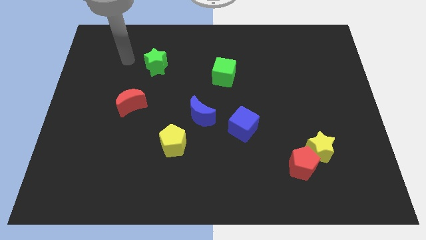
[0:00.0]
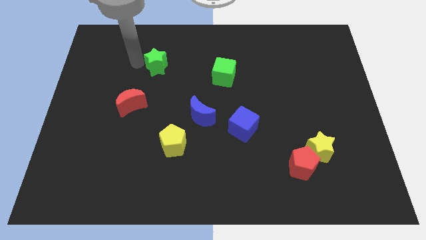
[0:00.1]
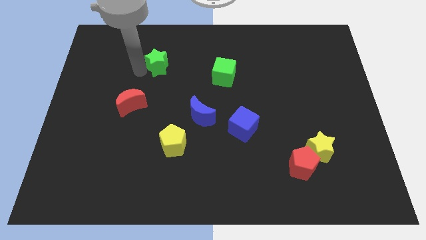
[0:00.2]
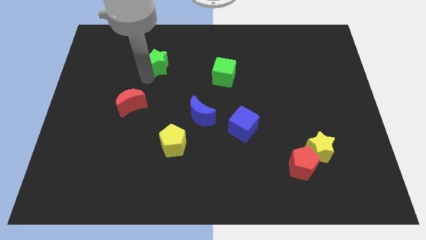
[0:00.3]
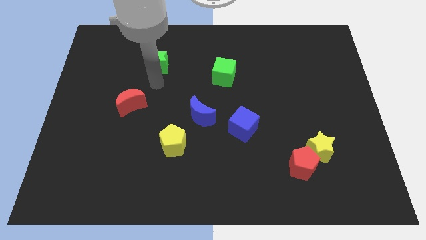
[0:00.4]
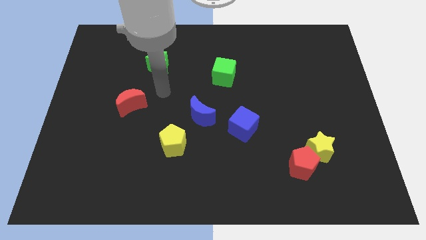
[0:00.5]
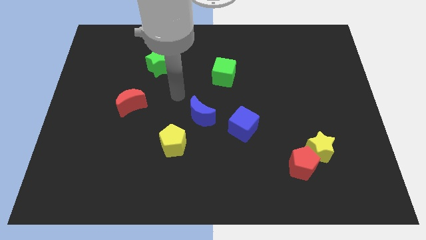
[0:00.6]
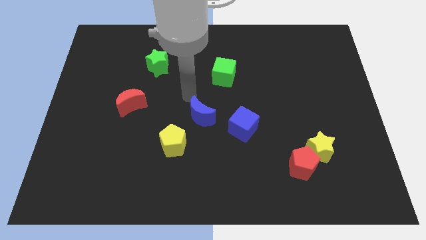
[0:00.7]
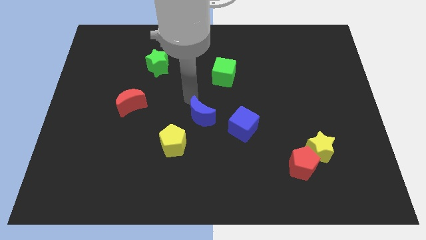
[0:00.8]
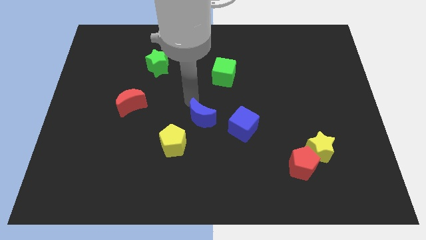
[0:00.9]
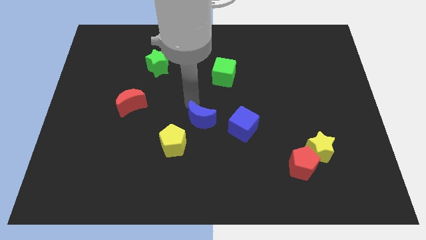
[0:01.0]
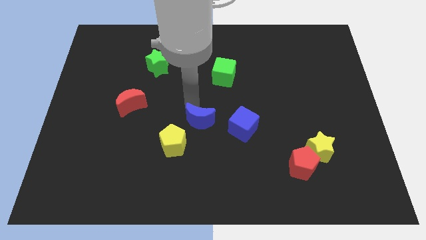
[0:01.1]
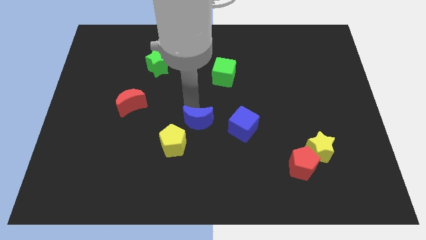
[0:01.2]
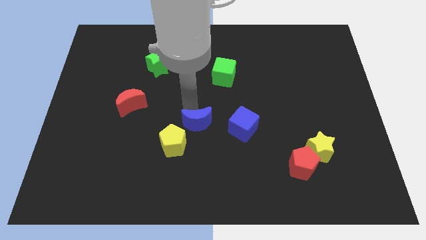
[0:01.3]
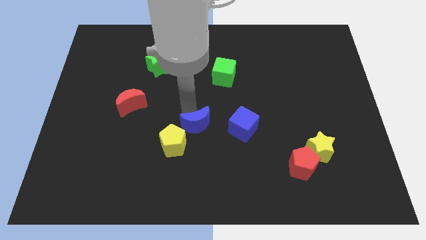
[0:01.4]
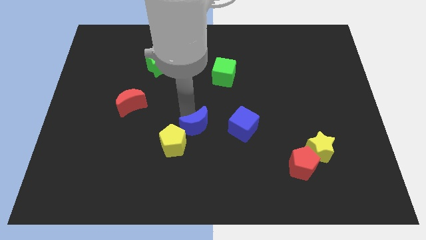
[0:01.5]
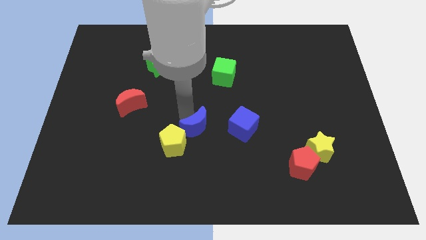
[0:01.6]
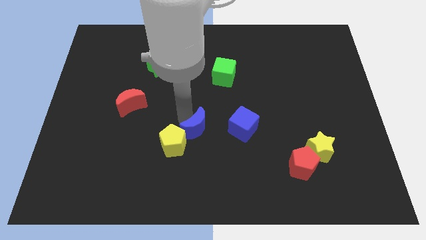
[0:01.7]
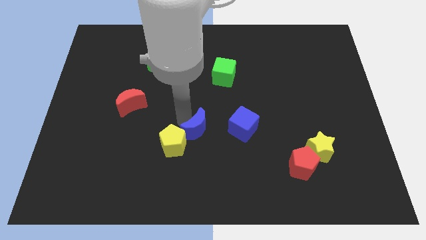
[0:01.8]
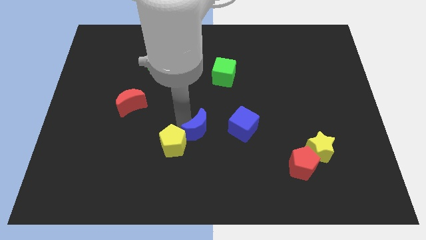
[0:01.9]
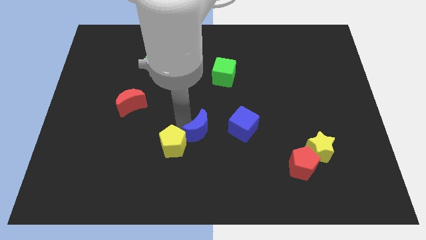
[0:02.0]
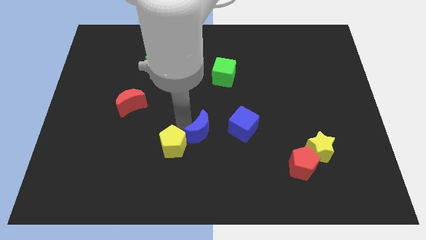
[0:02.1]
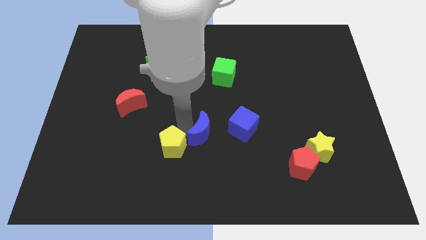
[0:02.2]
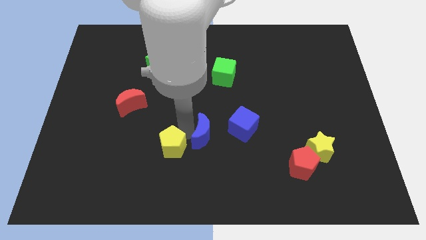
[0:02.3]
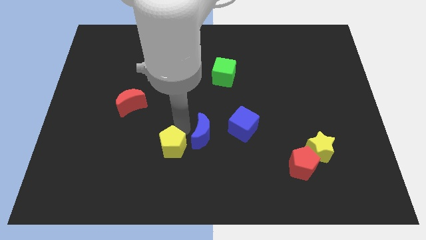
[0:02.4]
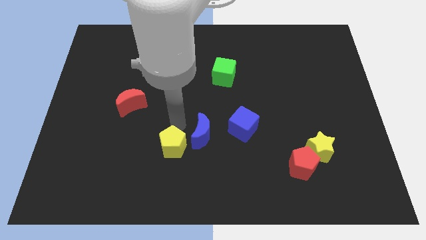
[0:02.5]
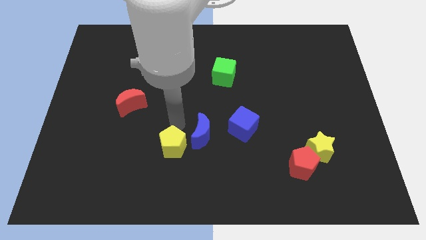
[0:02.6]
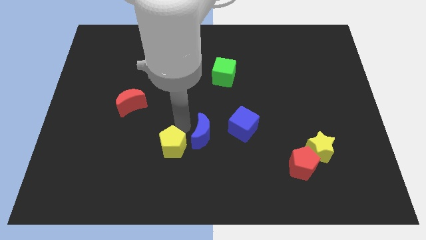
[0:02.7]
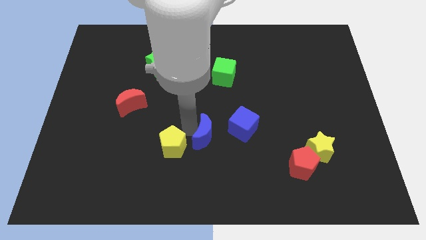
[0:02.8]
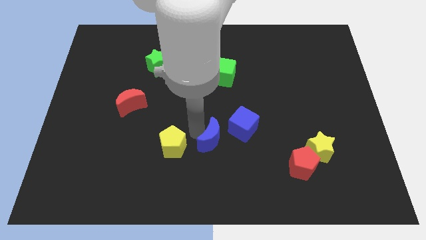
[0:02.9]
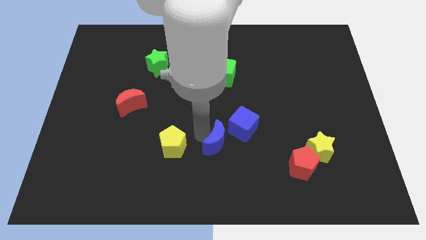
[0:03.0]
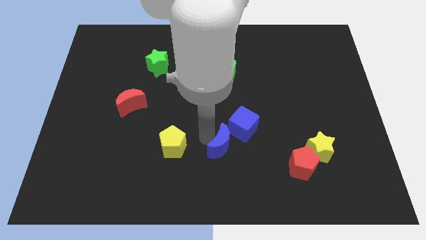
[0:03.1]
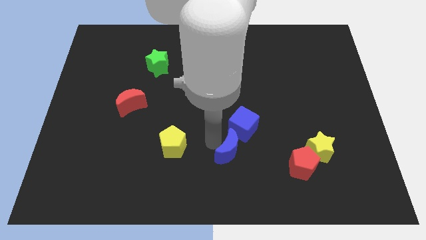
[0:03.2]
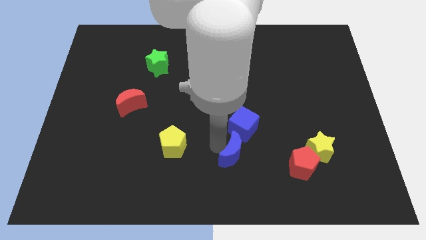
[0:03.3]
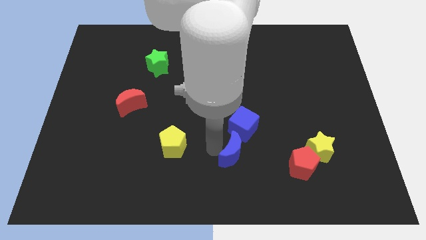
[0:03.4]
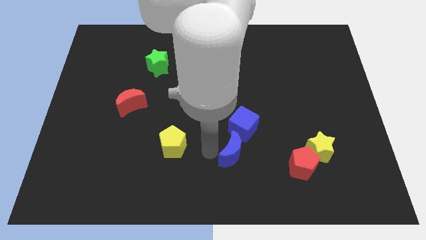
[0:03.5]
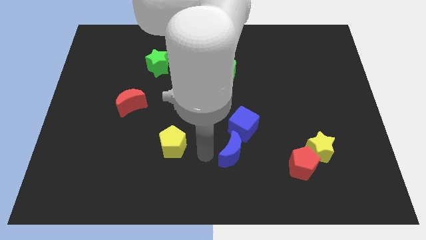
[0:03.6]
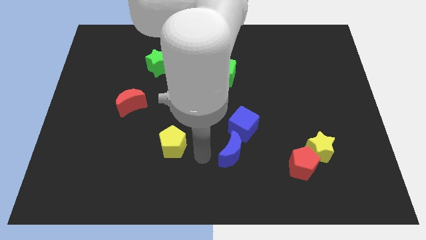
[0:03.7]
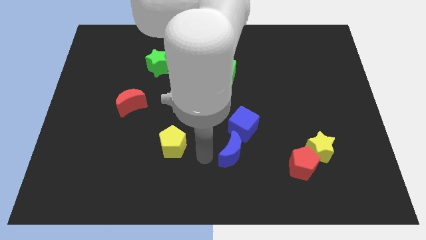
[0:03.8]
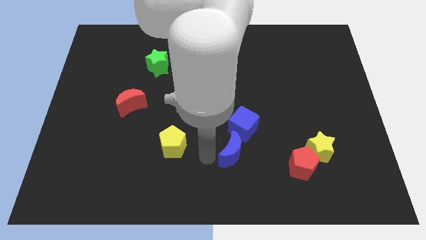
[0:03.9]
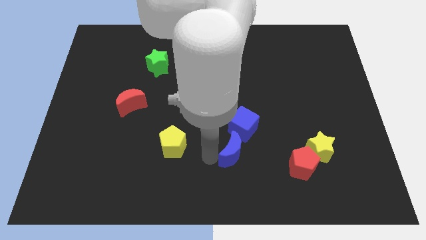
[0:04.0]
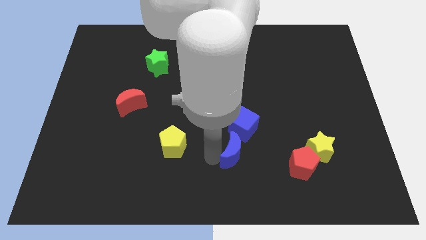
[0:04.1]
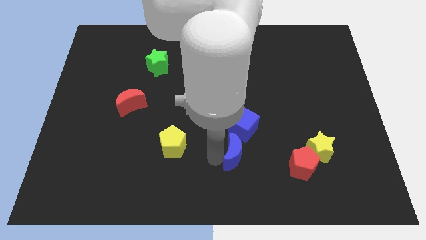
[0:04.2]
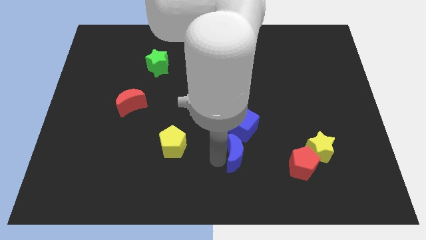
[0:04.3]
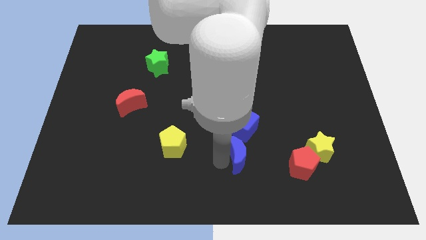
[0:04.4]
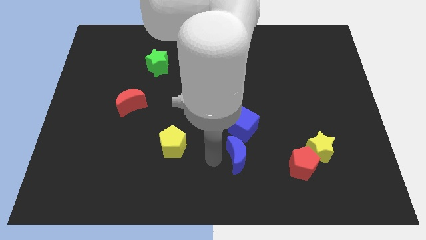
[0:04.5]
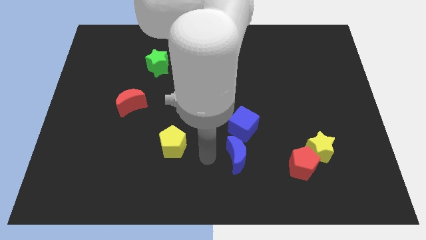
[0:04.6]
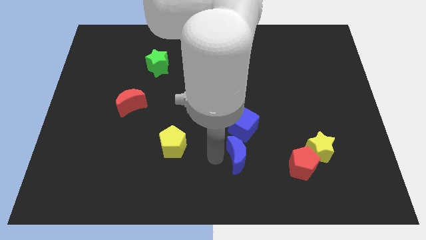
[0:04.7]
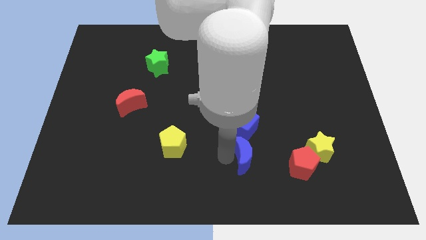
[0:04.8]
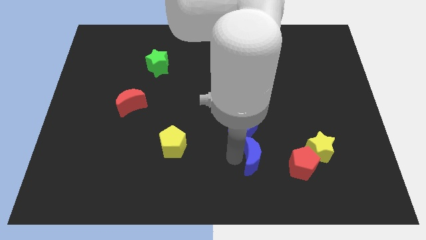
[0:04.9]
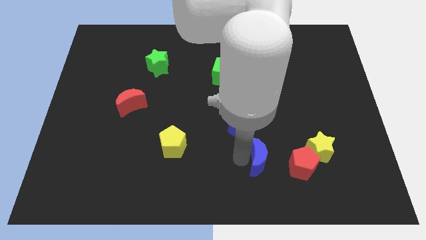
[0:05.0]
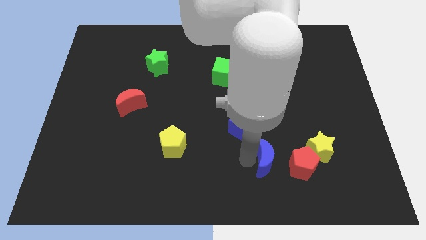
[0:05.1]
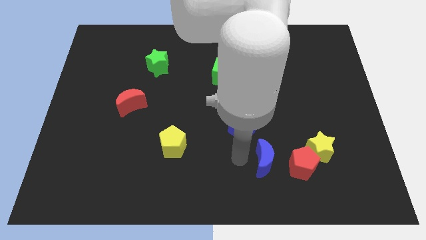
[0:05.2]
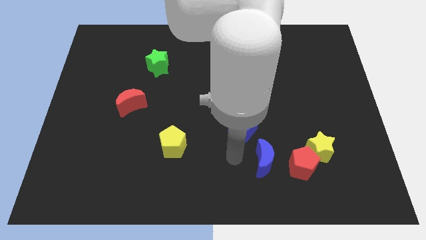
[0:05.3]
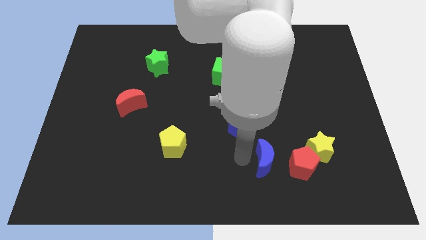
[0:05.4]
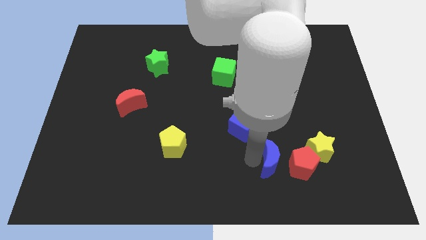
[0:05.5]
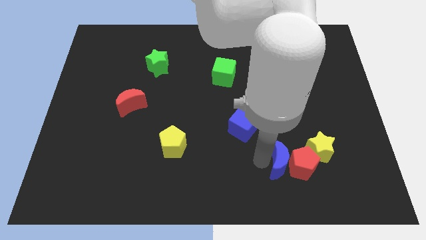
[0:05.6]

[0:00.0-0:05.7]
put the blue moon close to the red pentagon
